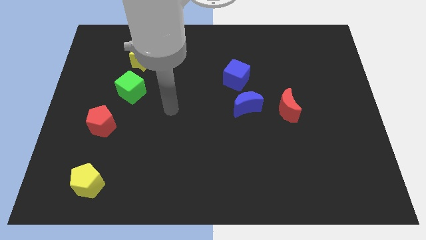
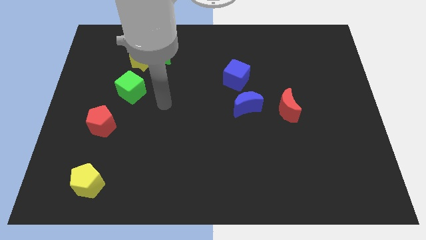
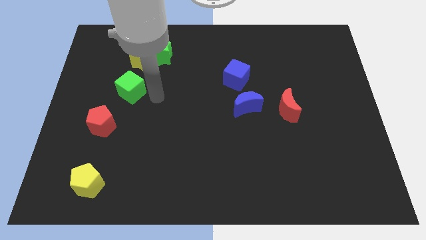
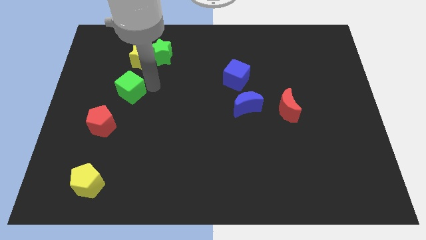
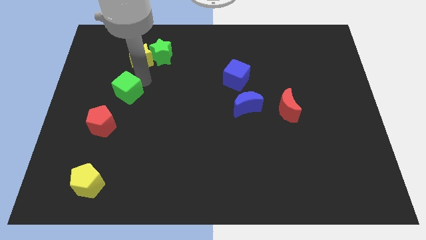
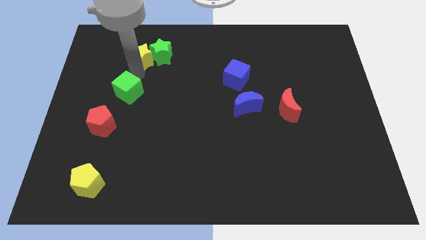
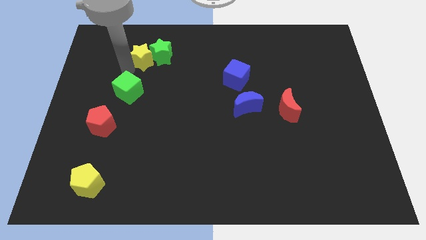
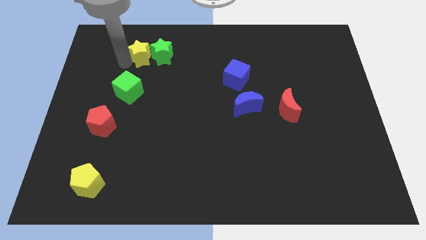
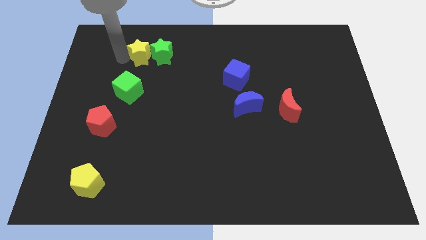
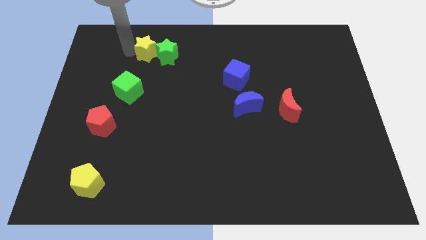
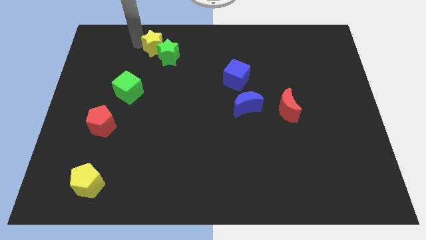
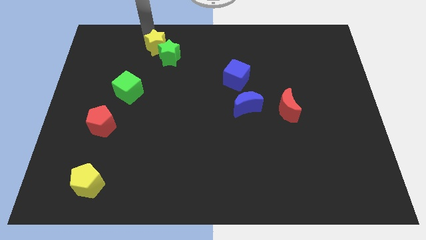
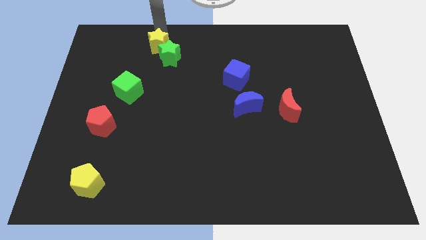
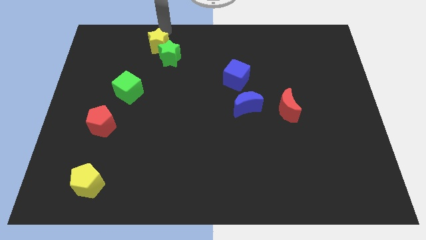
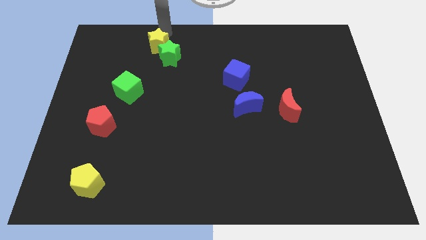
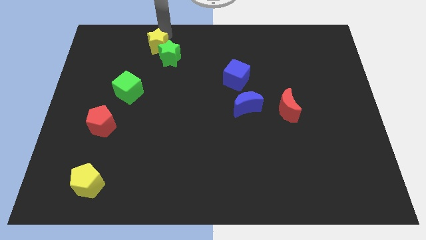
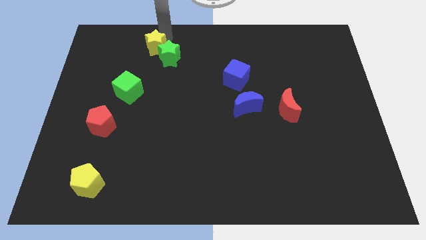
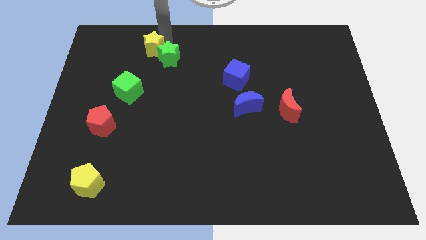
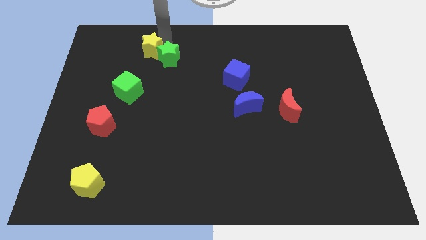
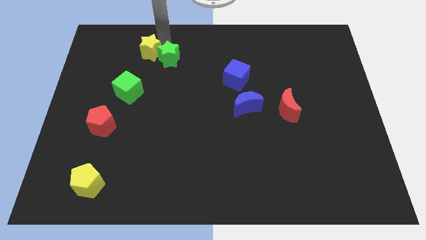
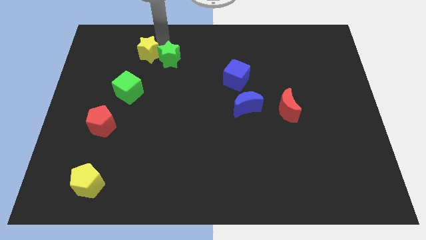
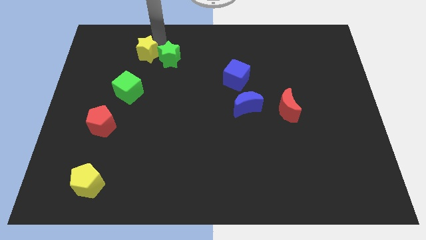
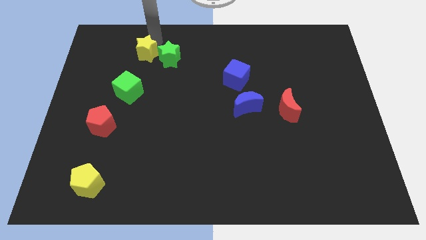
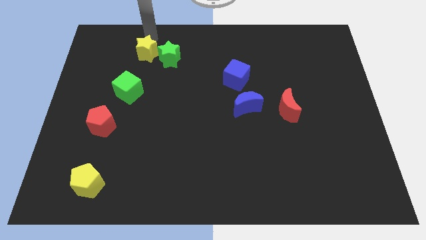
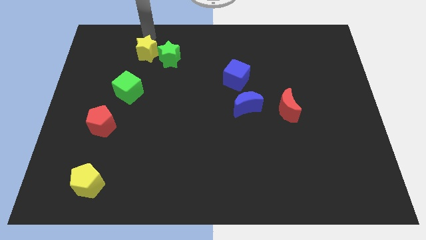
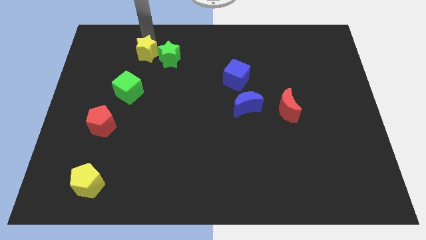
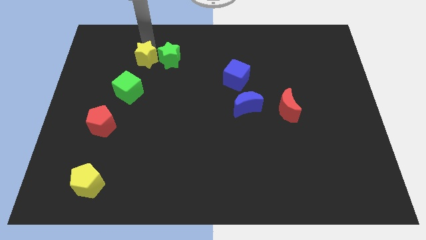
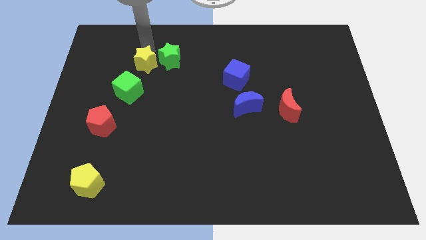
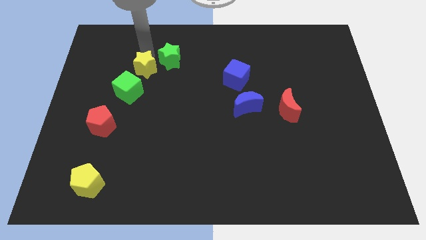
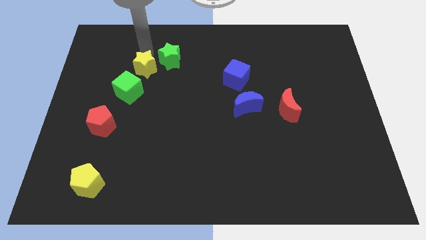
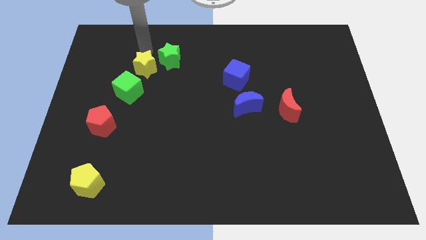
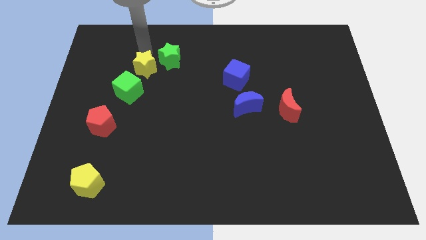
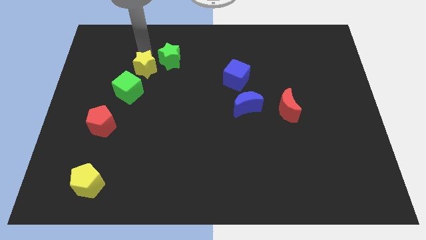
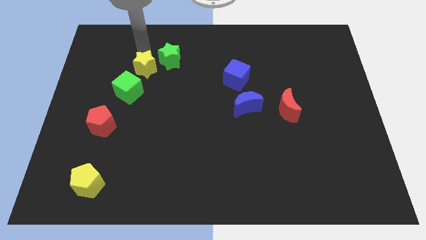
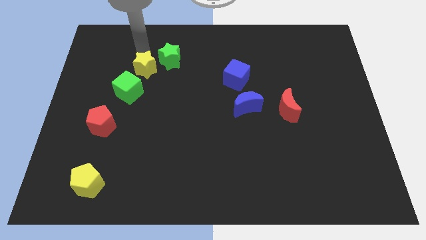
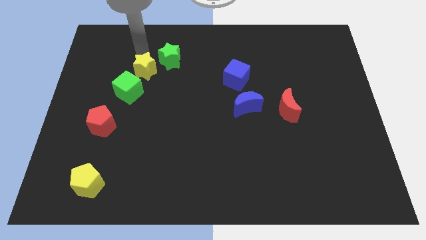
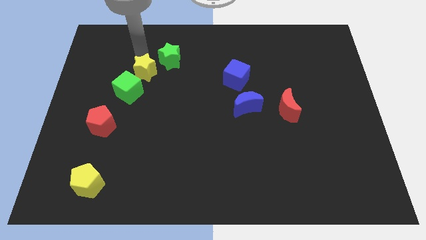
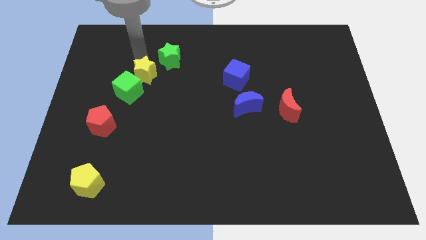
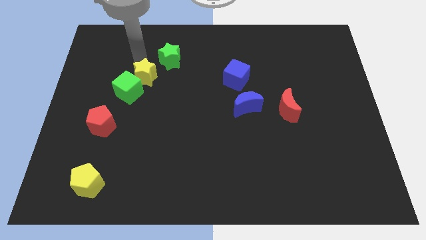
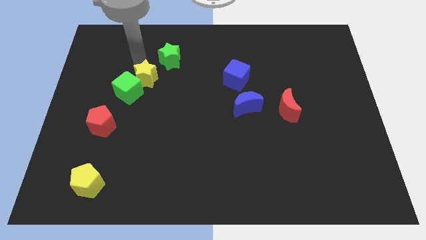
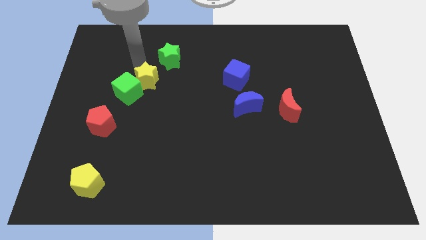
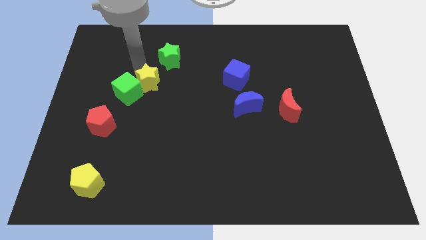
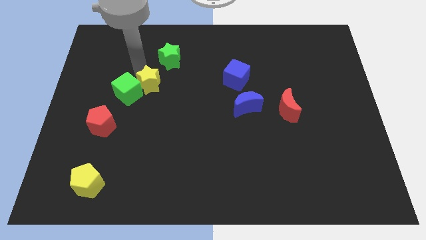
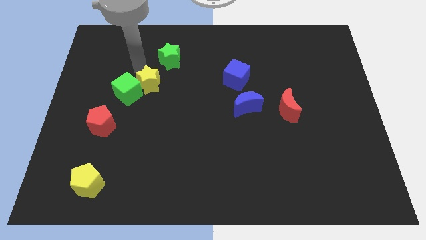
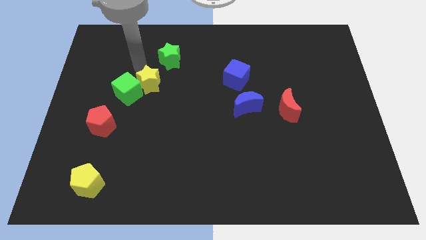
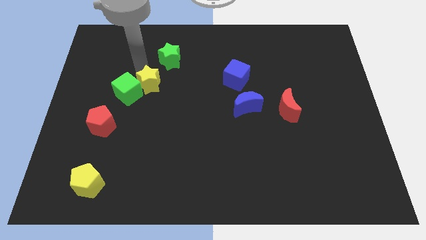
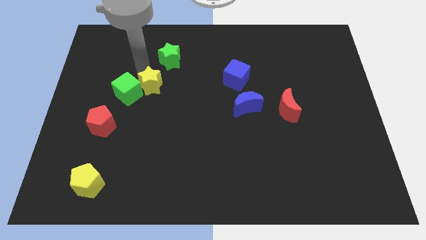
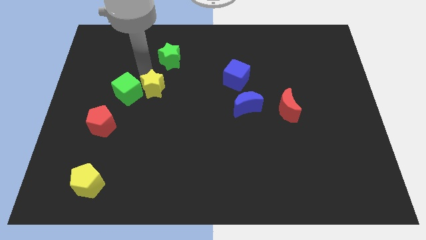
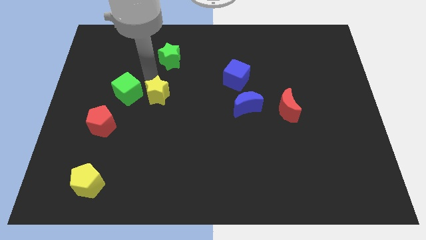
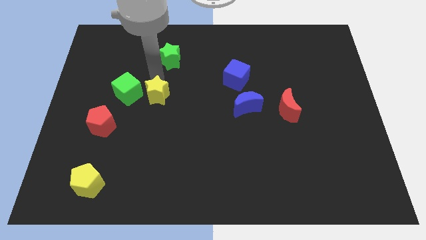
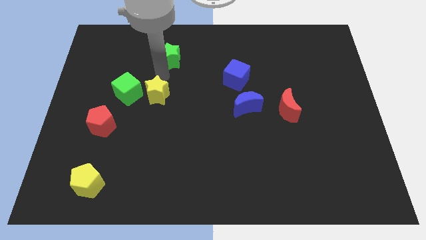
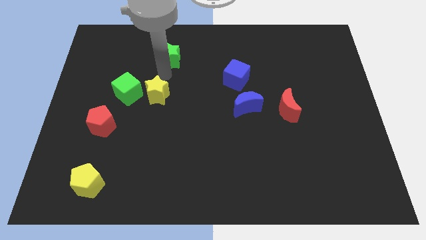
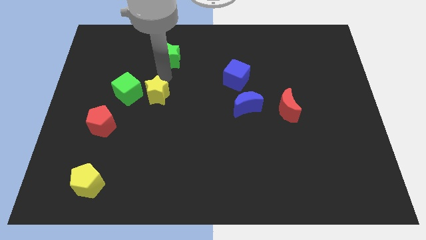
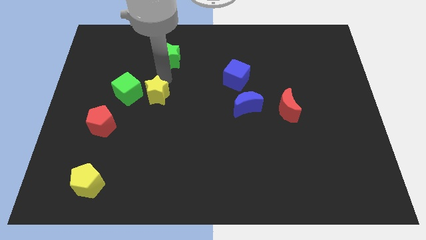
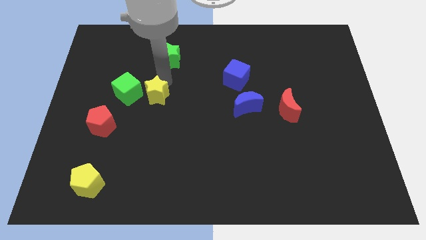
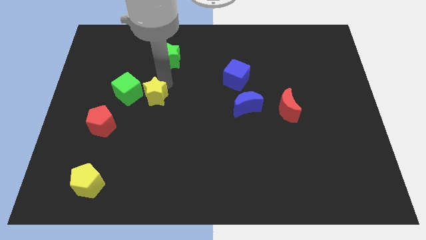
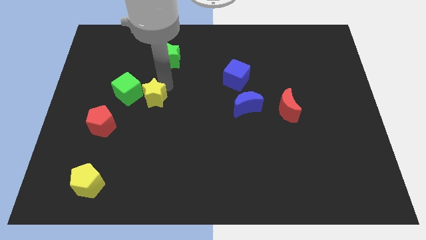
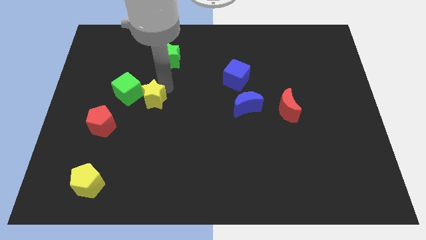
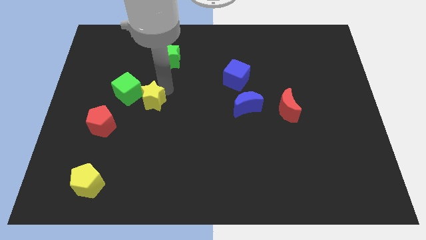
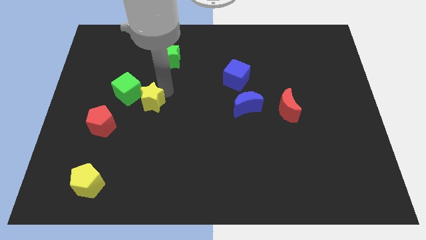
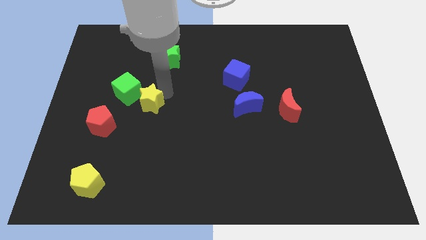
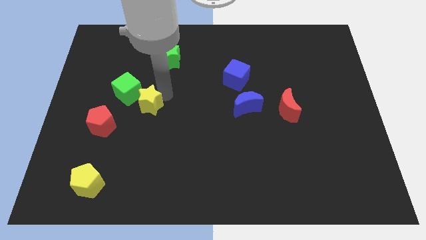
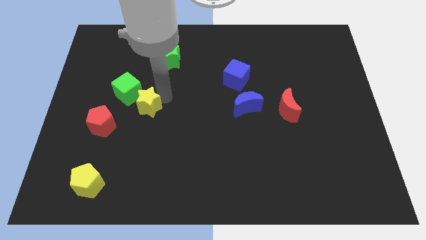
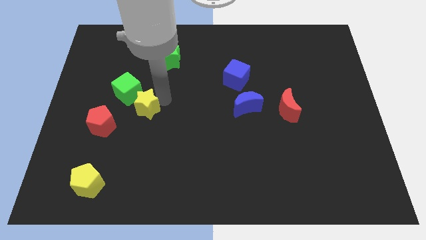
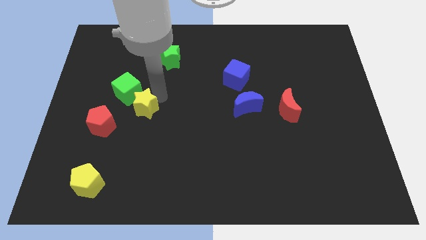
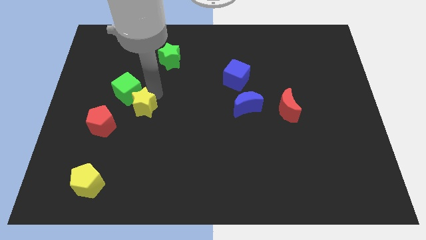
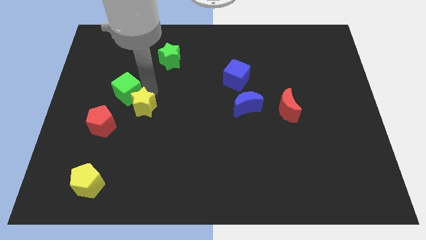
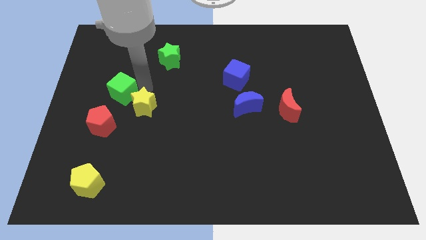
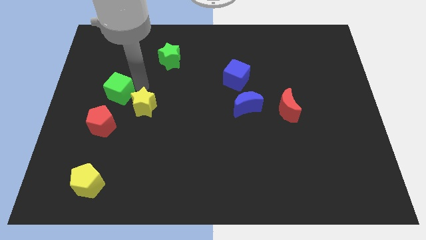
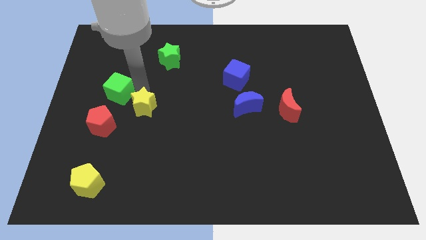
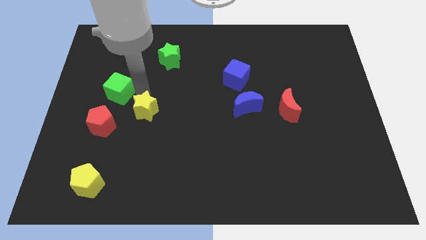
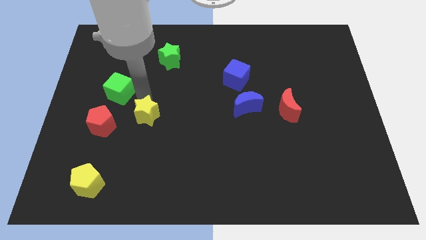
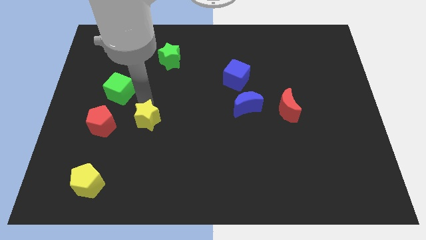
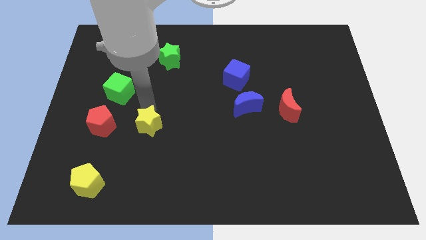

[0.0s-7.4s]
move the yellow star down

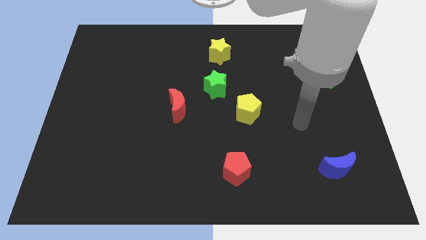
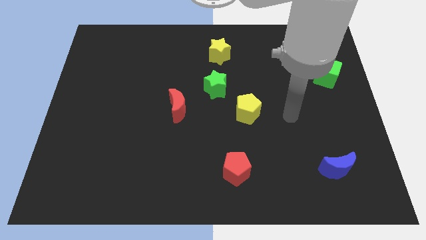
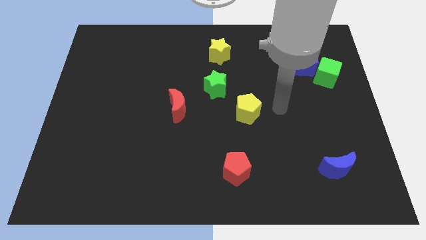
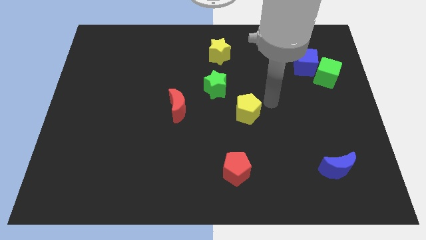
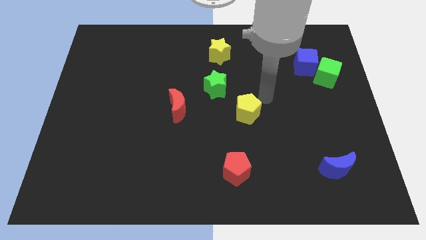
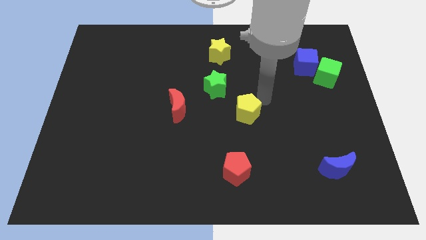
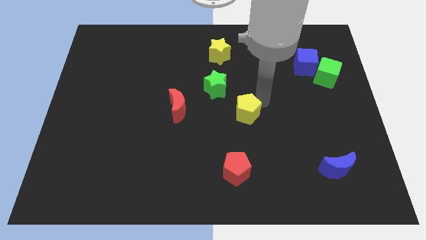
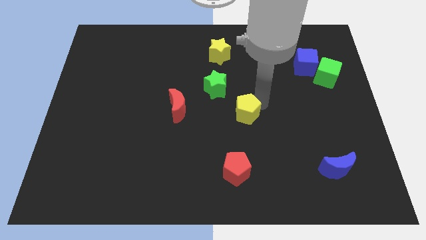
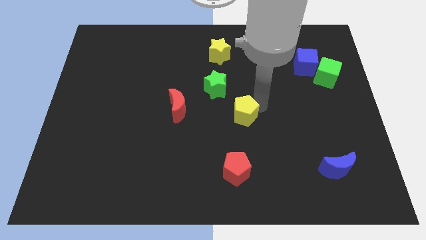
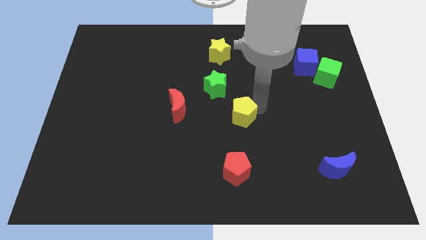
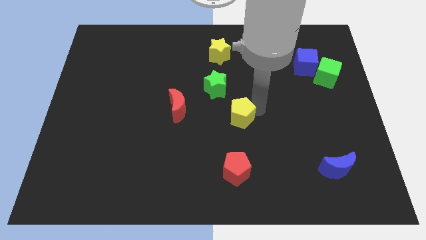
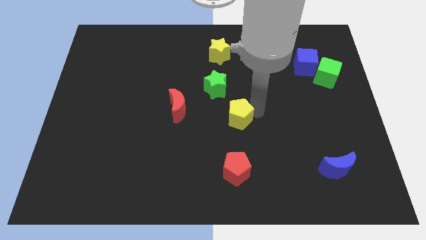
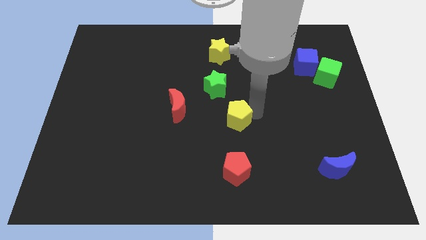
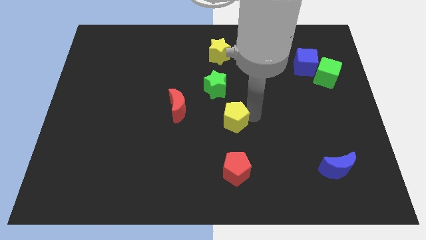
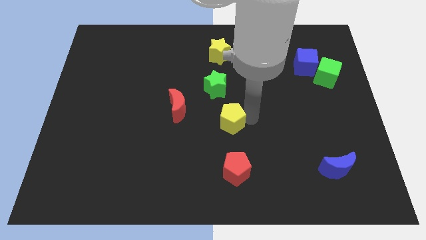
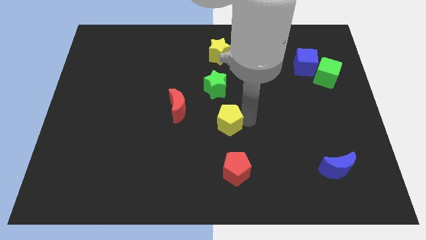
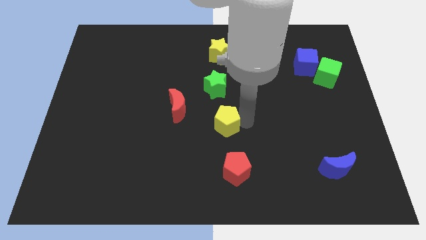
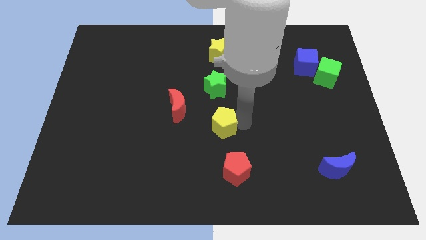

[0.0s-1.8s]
slide the yellow pentagon slightly down and then to the left
